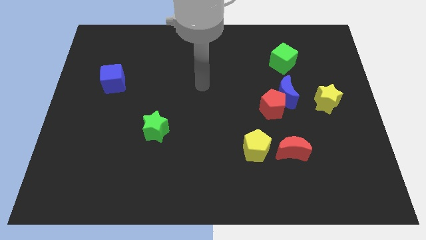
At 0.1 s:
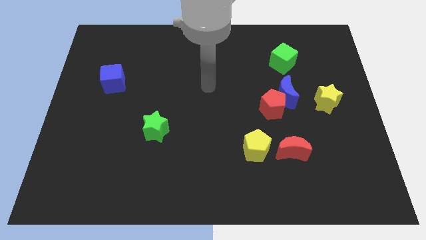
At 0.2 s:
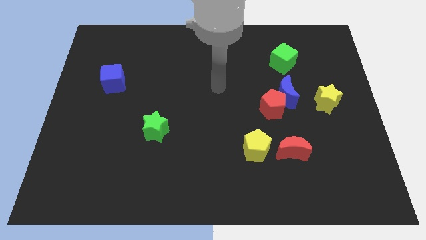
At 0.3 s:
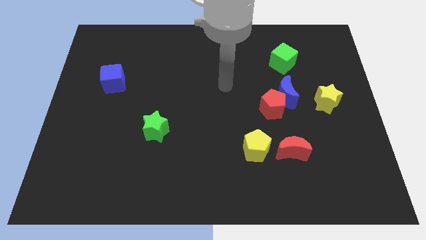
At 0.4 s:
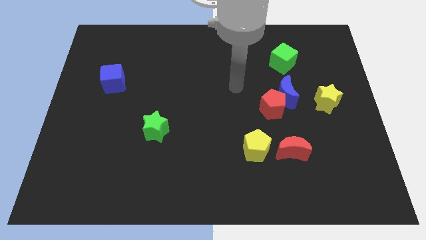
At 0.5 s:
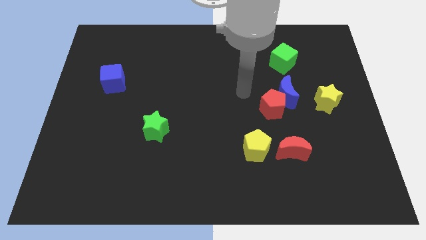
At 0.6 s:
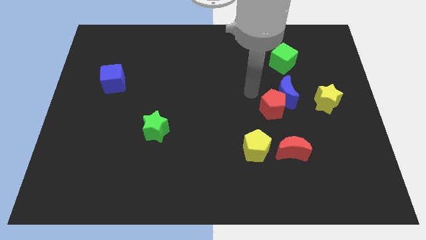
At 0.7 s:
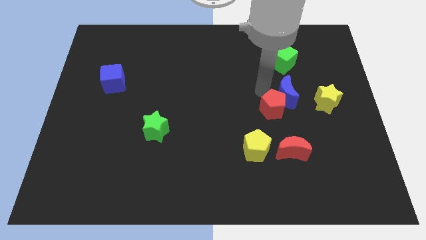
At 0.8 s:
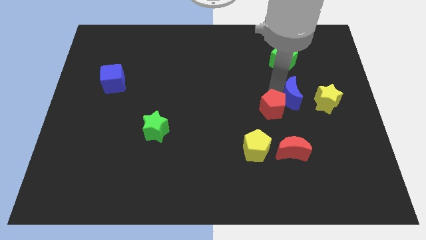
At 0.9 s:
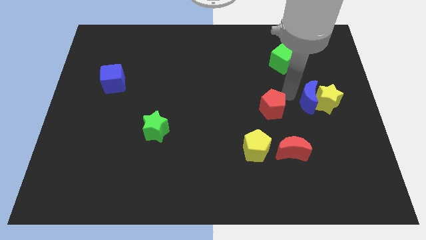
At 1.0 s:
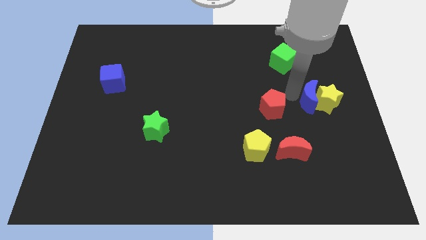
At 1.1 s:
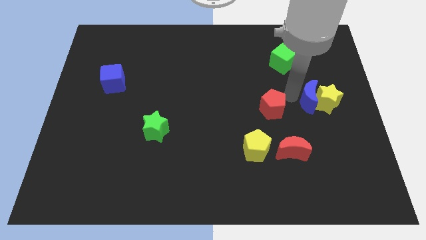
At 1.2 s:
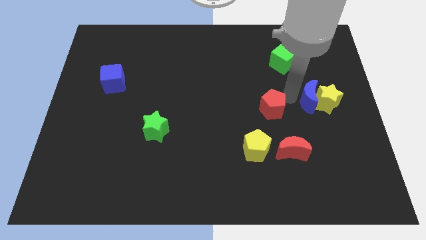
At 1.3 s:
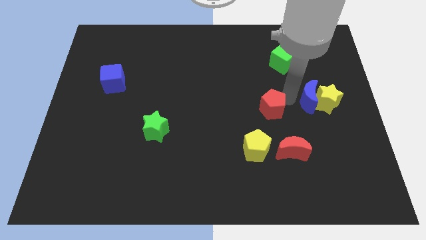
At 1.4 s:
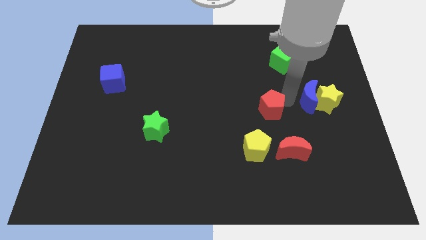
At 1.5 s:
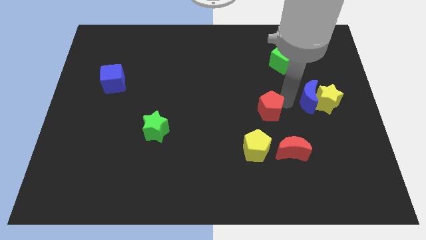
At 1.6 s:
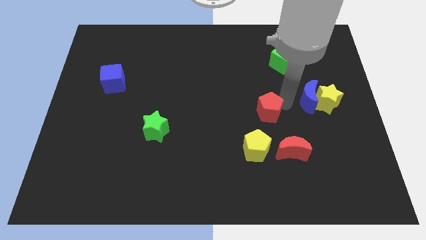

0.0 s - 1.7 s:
move the red pentagon away from the blue moon

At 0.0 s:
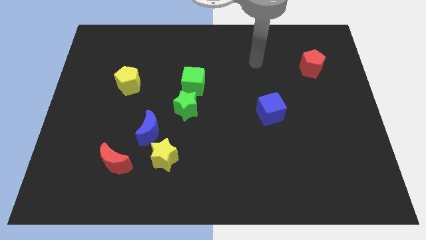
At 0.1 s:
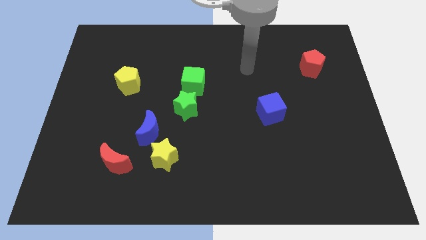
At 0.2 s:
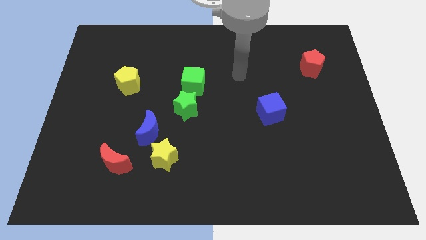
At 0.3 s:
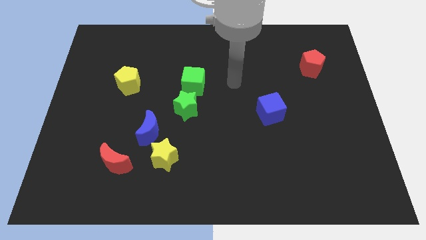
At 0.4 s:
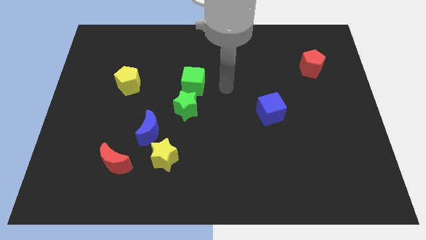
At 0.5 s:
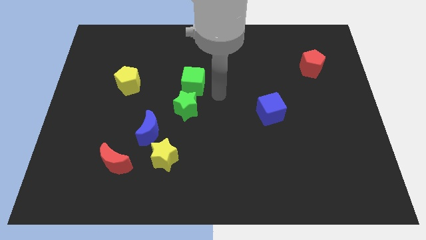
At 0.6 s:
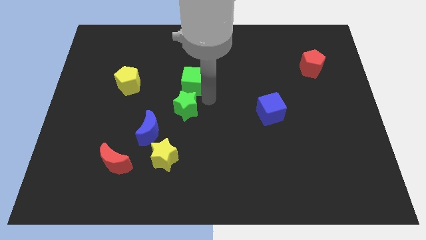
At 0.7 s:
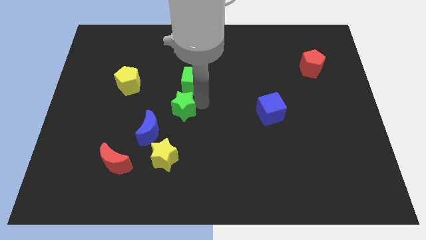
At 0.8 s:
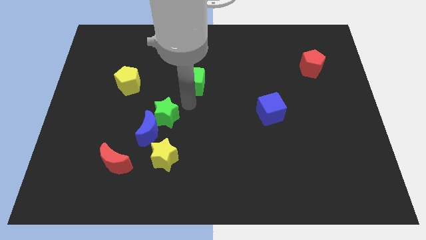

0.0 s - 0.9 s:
separate the green cube from the green star

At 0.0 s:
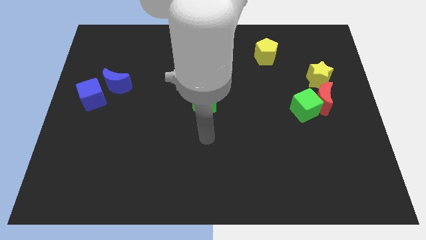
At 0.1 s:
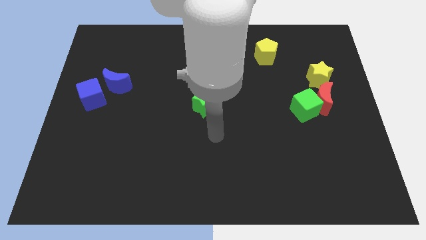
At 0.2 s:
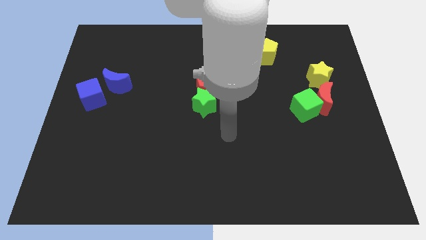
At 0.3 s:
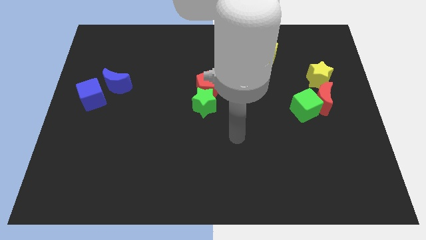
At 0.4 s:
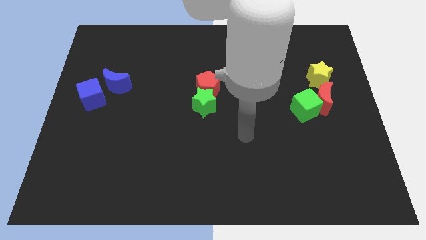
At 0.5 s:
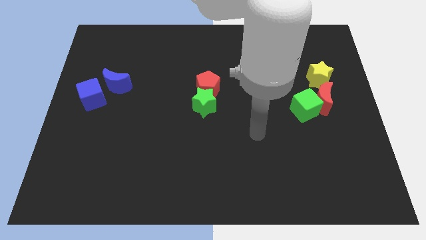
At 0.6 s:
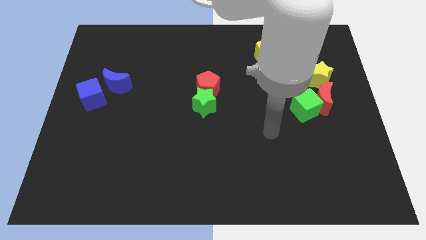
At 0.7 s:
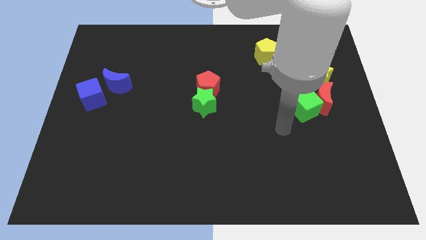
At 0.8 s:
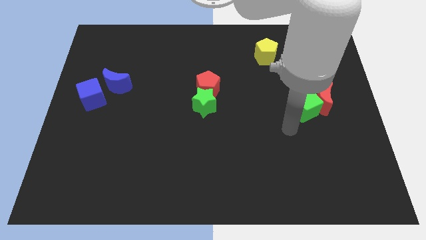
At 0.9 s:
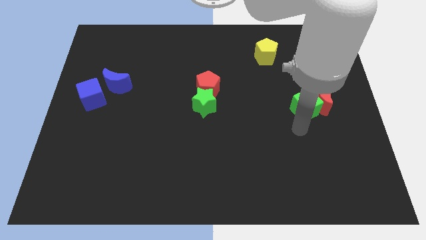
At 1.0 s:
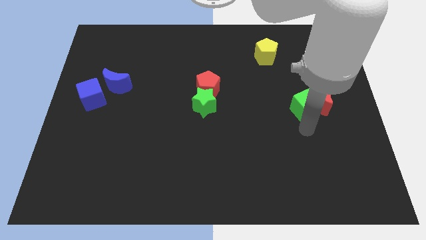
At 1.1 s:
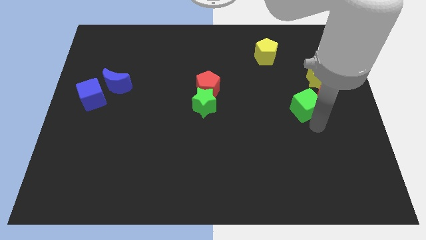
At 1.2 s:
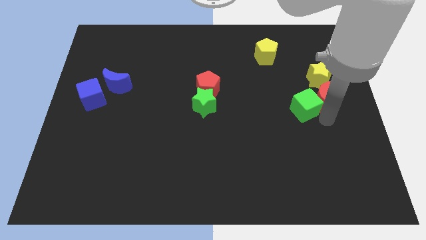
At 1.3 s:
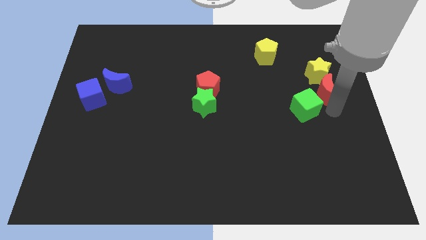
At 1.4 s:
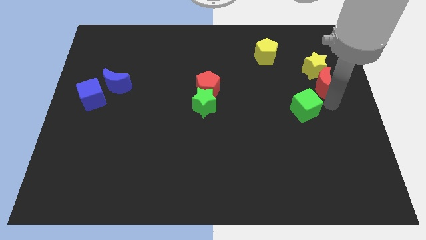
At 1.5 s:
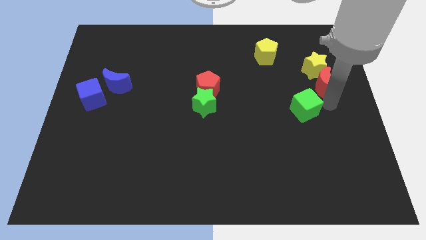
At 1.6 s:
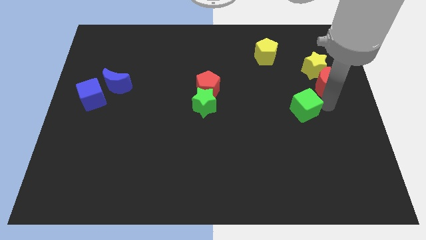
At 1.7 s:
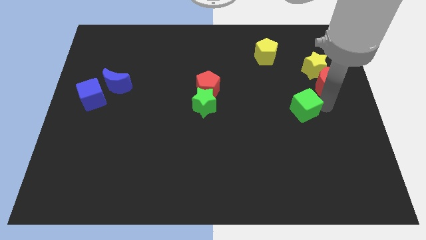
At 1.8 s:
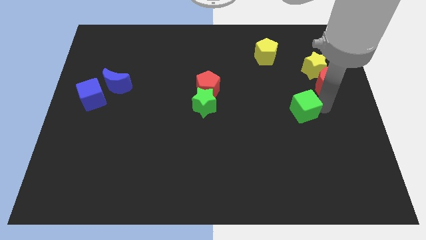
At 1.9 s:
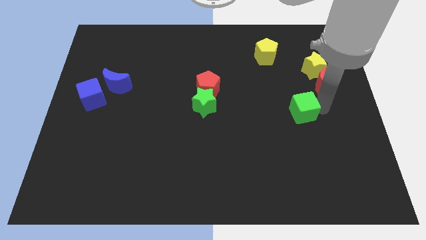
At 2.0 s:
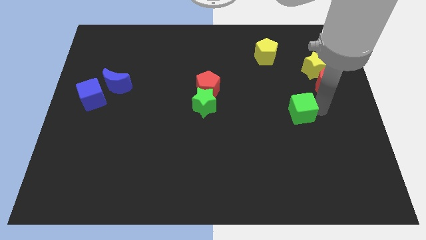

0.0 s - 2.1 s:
separate the green cube from the red moon

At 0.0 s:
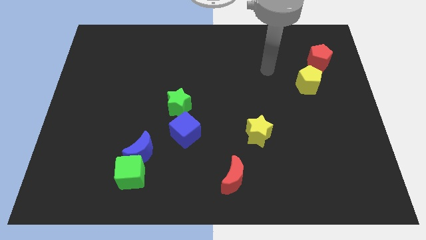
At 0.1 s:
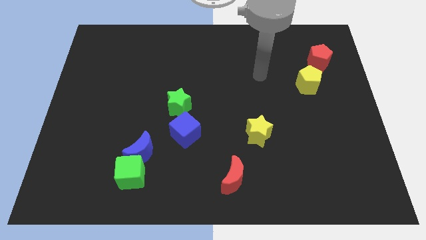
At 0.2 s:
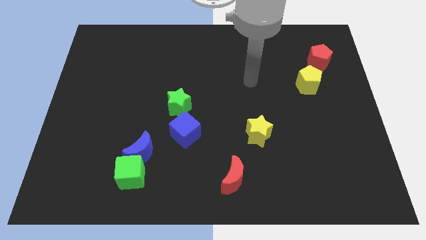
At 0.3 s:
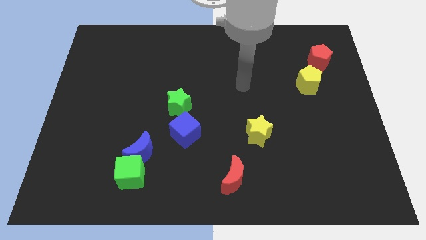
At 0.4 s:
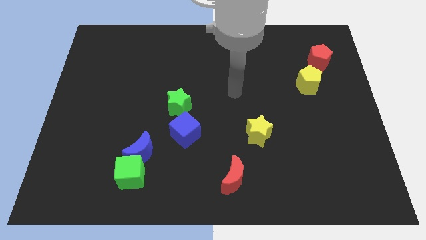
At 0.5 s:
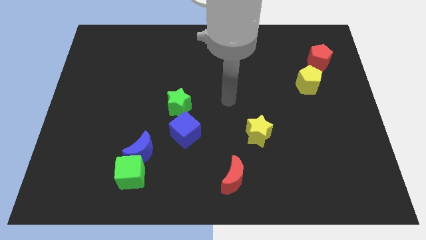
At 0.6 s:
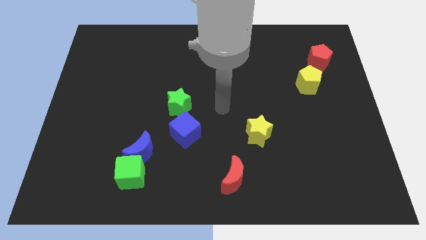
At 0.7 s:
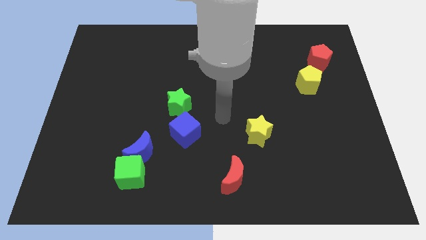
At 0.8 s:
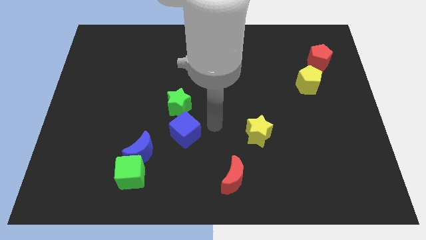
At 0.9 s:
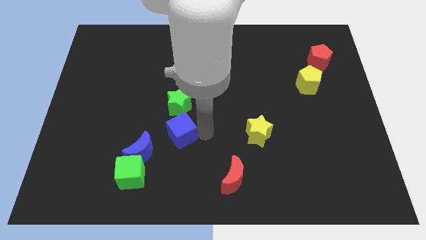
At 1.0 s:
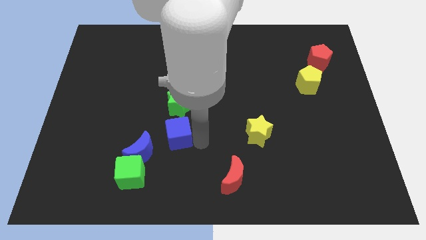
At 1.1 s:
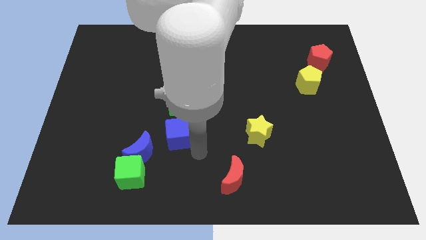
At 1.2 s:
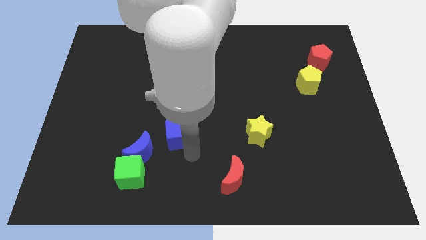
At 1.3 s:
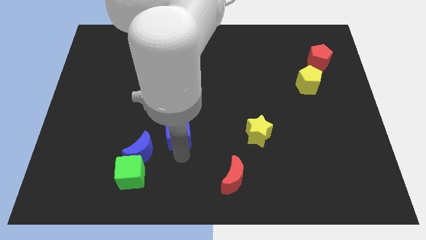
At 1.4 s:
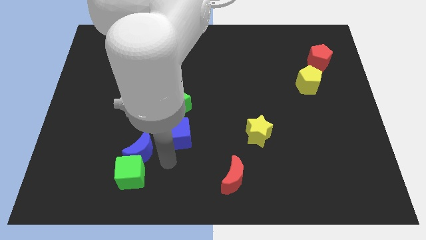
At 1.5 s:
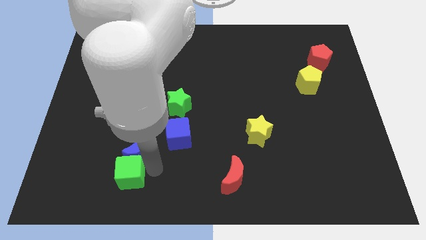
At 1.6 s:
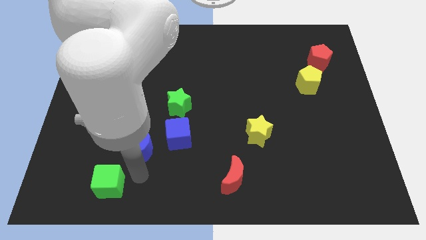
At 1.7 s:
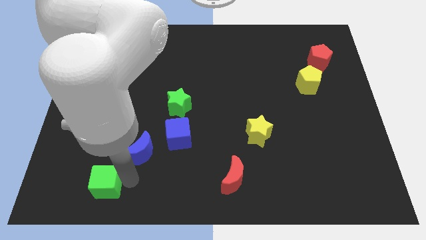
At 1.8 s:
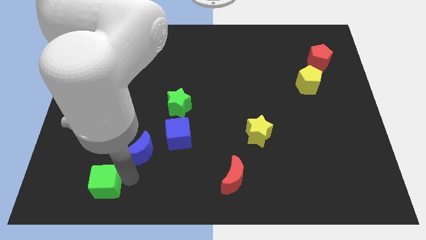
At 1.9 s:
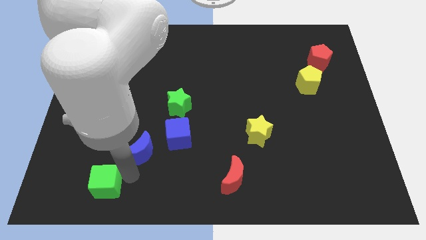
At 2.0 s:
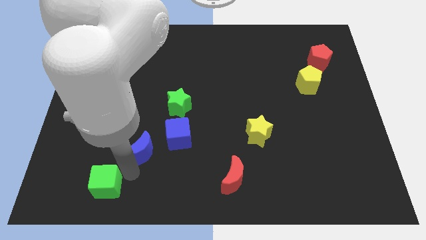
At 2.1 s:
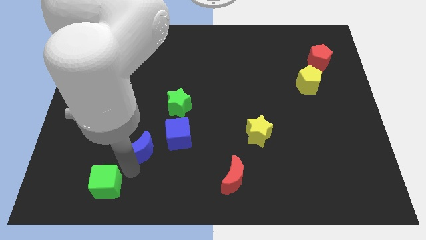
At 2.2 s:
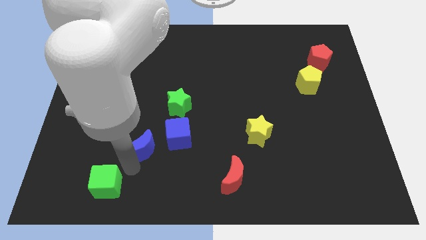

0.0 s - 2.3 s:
pull the blue moon apart from the green cube

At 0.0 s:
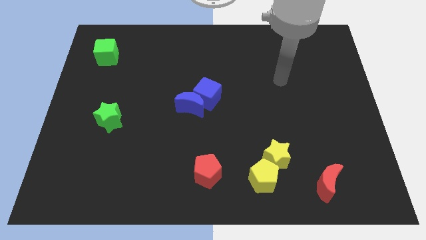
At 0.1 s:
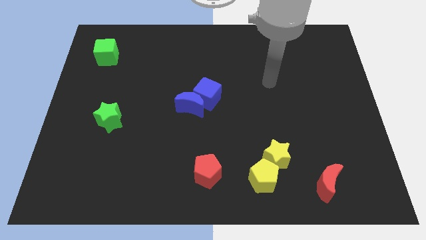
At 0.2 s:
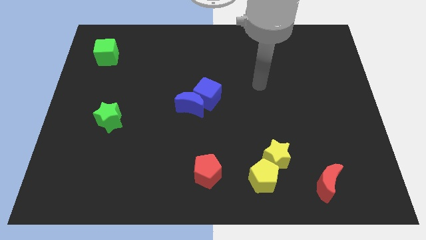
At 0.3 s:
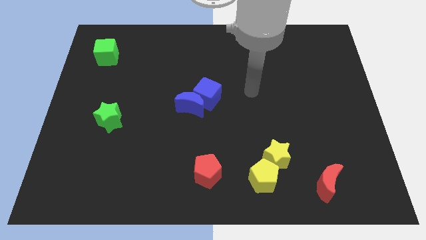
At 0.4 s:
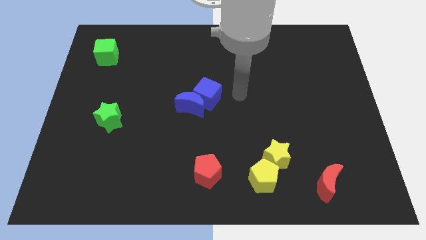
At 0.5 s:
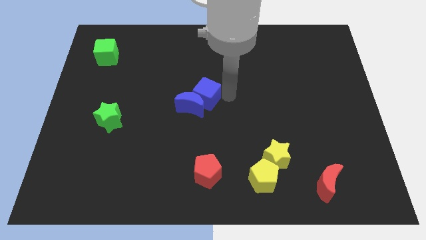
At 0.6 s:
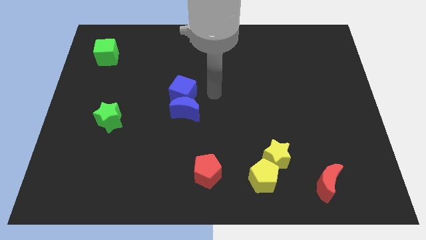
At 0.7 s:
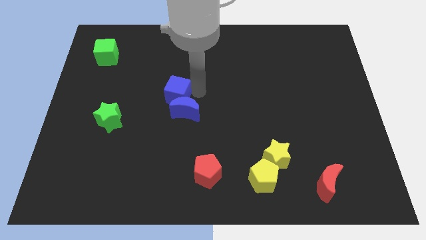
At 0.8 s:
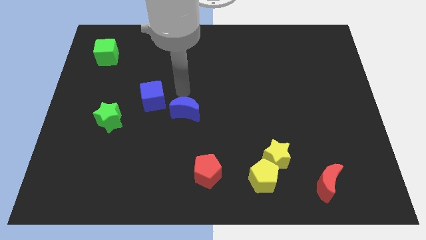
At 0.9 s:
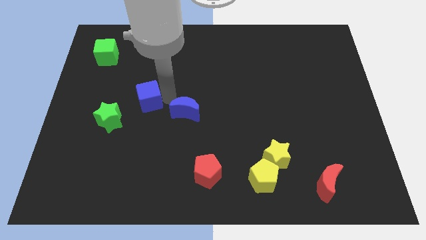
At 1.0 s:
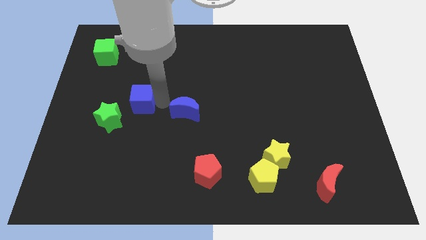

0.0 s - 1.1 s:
move the blue moon away from the blue cube

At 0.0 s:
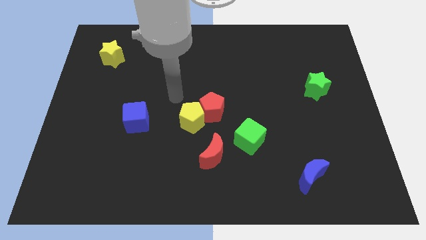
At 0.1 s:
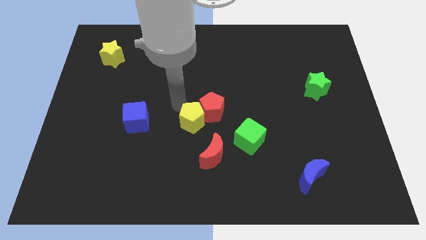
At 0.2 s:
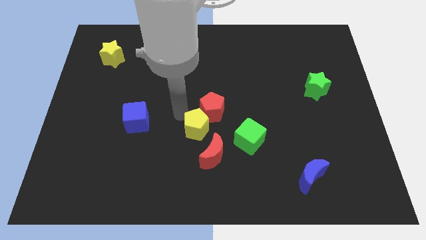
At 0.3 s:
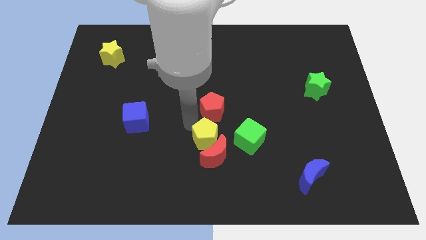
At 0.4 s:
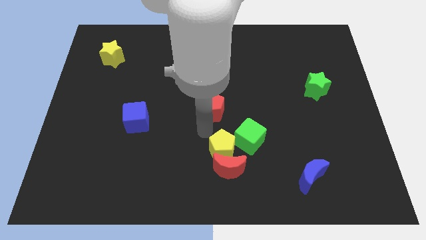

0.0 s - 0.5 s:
pull the red pentagon apart from the yellow pentagon

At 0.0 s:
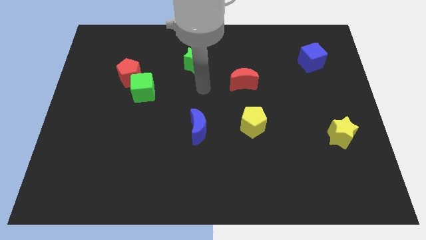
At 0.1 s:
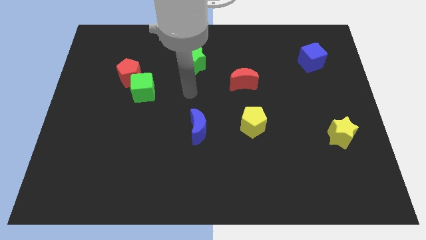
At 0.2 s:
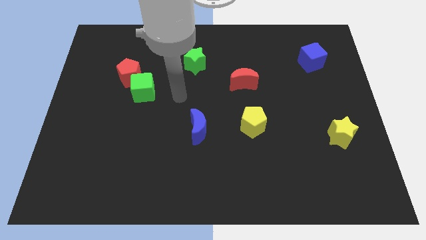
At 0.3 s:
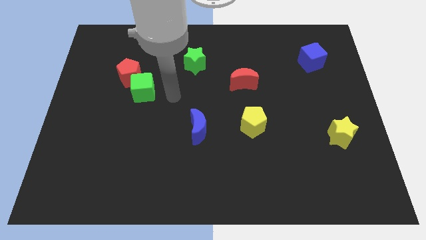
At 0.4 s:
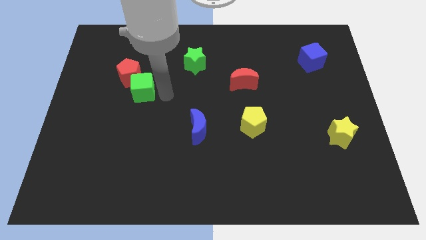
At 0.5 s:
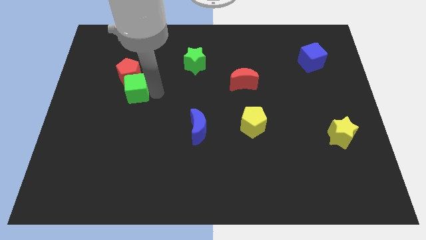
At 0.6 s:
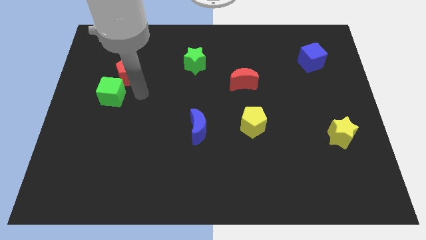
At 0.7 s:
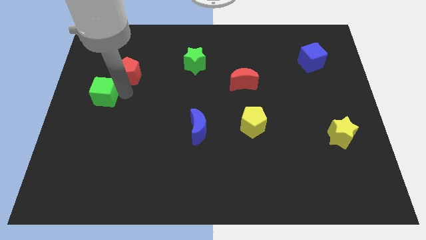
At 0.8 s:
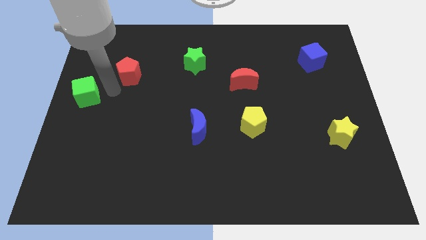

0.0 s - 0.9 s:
separate the red pentagon from the green cube
